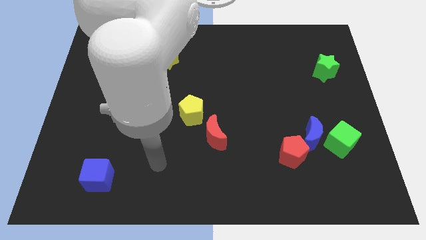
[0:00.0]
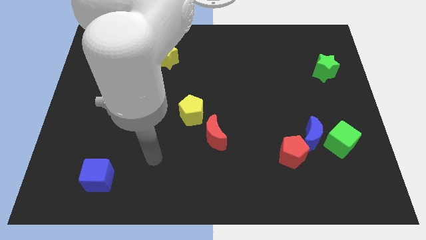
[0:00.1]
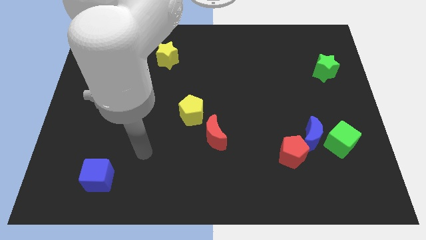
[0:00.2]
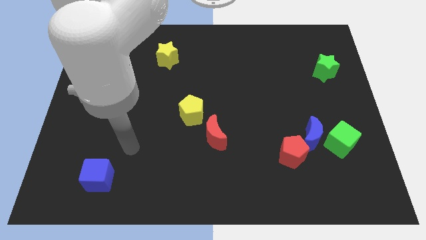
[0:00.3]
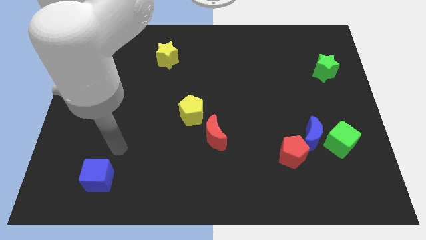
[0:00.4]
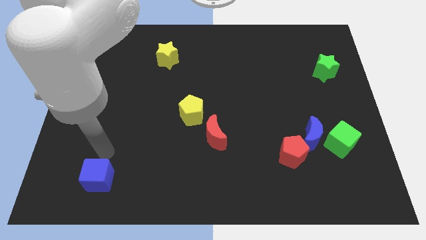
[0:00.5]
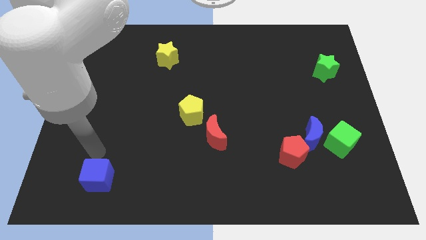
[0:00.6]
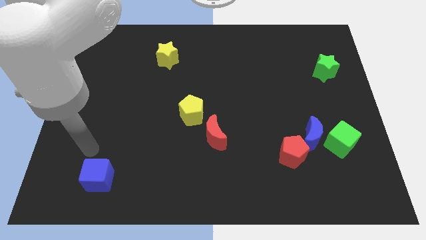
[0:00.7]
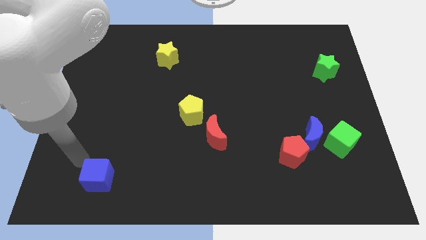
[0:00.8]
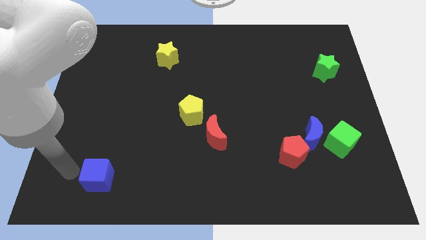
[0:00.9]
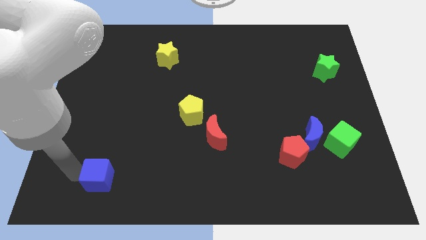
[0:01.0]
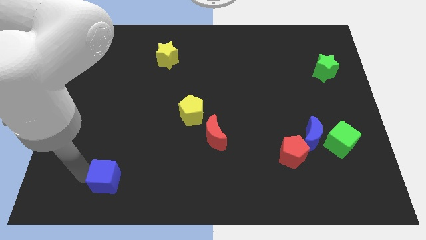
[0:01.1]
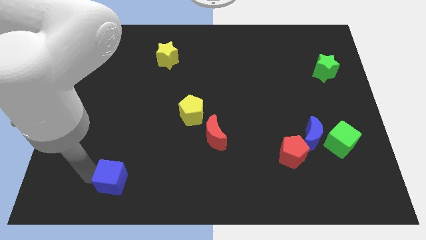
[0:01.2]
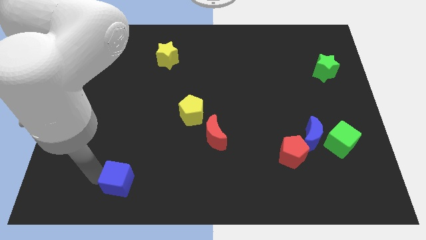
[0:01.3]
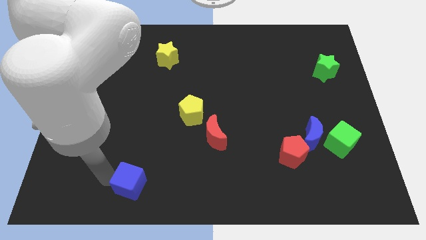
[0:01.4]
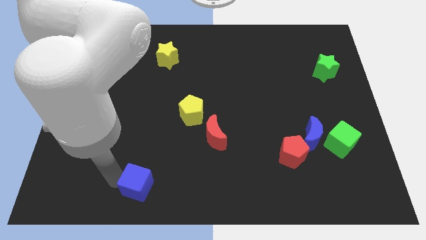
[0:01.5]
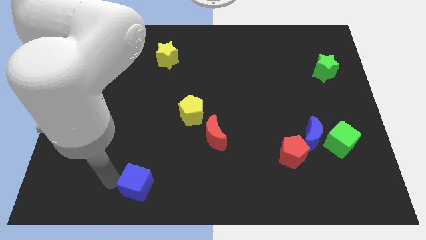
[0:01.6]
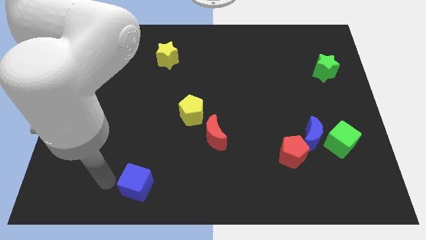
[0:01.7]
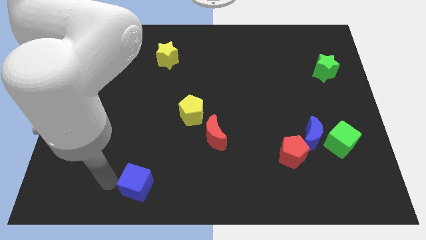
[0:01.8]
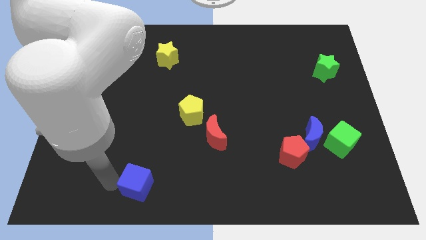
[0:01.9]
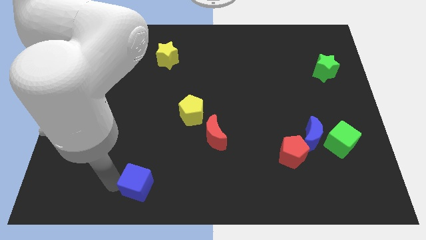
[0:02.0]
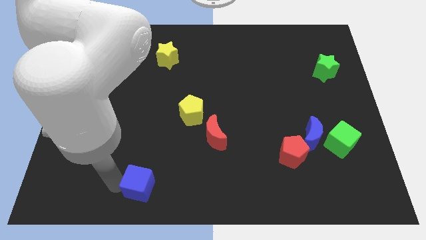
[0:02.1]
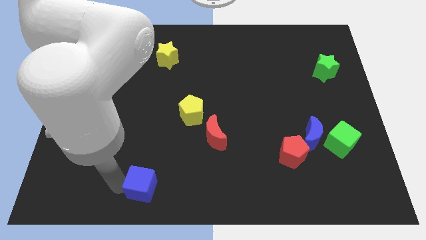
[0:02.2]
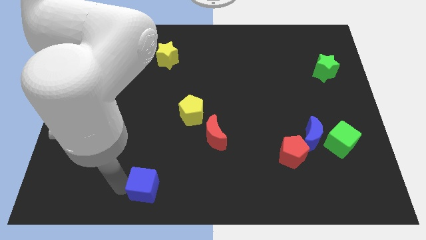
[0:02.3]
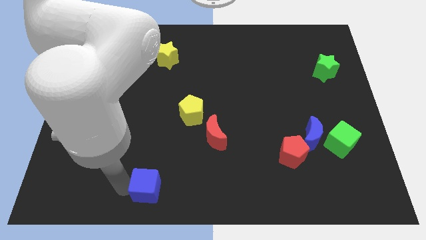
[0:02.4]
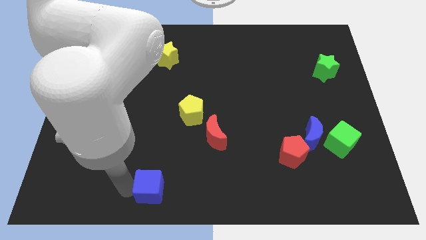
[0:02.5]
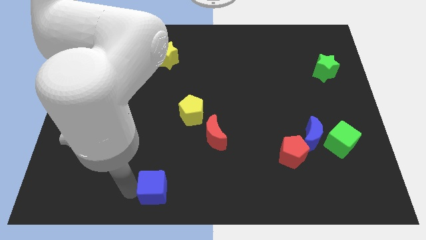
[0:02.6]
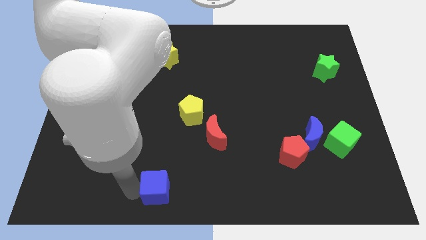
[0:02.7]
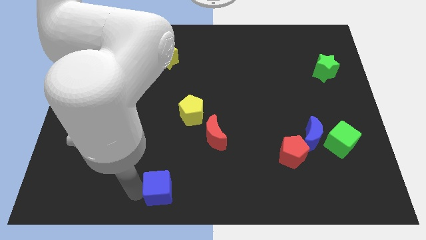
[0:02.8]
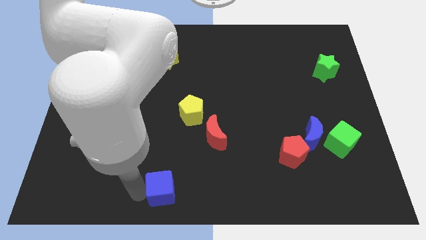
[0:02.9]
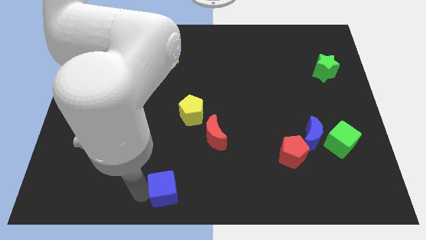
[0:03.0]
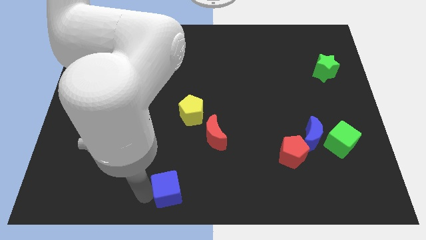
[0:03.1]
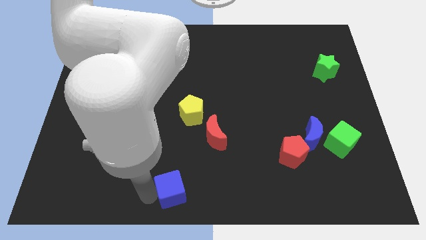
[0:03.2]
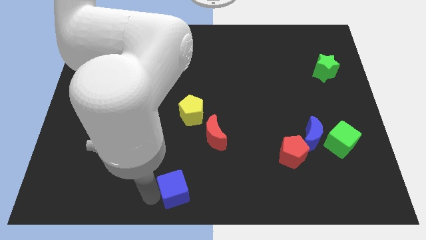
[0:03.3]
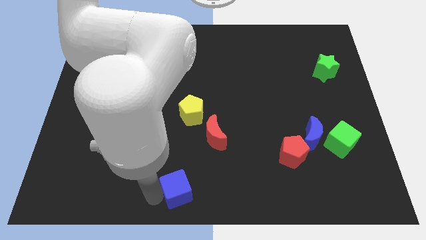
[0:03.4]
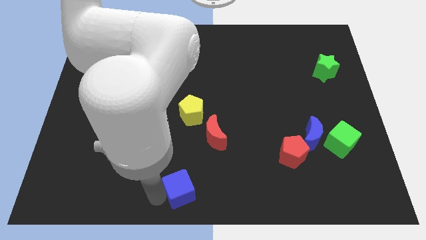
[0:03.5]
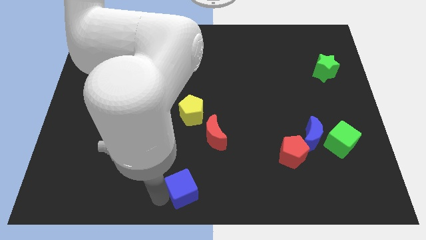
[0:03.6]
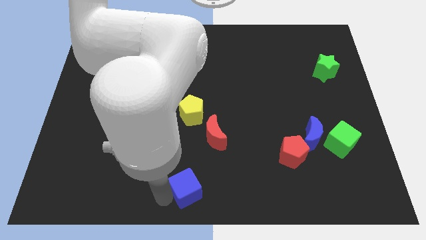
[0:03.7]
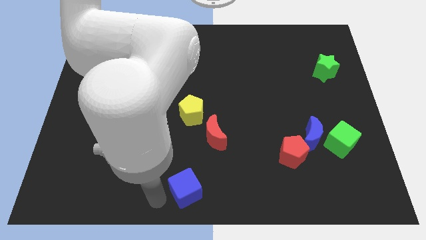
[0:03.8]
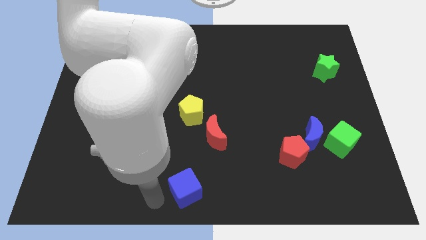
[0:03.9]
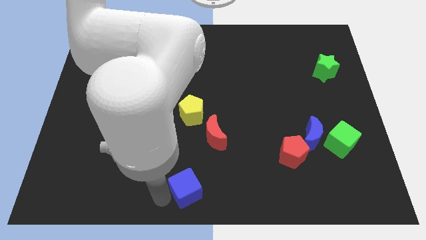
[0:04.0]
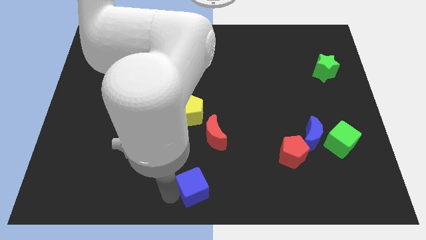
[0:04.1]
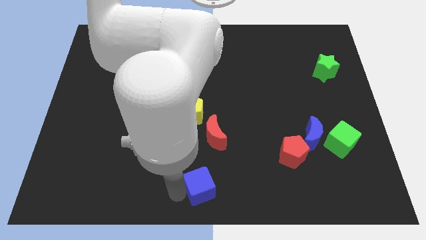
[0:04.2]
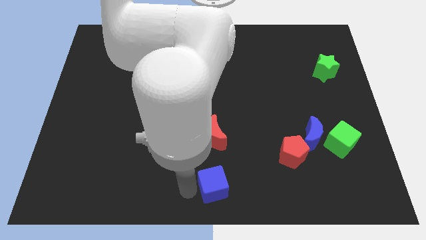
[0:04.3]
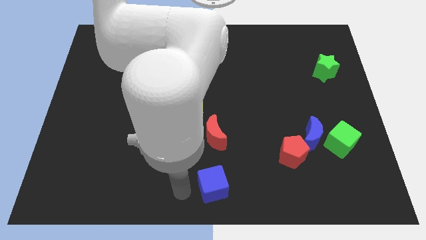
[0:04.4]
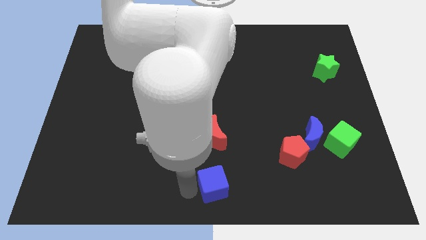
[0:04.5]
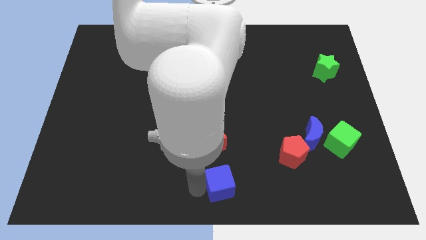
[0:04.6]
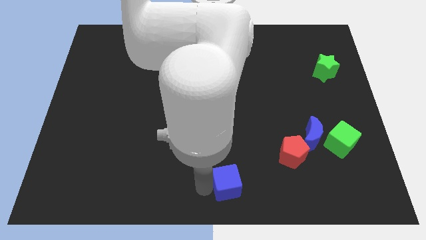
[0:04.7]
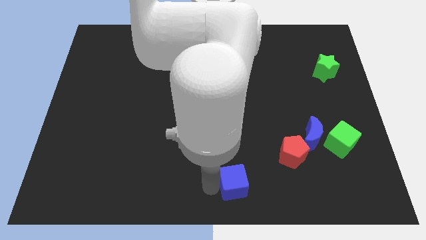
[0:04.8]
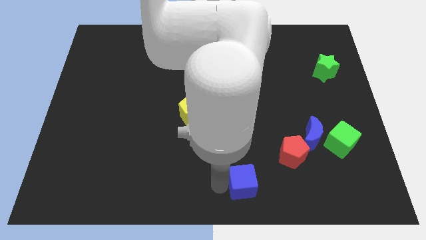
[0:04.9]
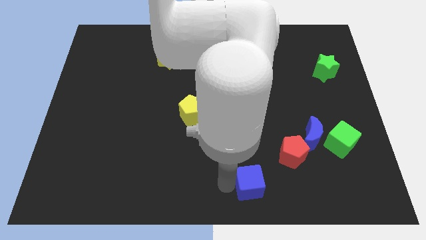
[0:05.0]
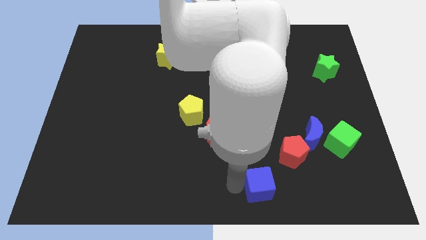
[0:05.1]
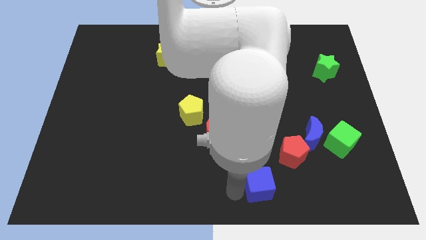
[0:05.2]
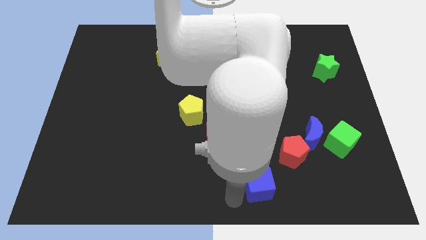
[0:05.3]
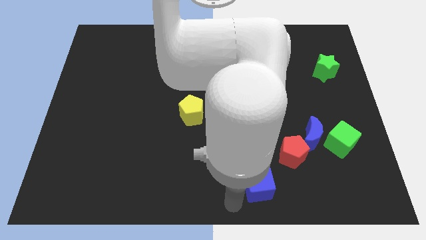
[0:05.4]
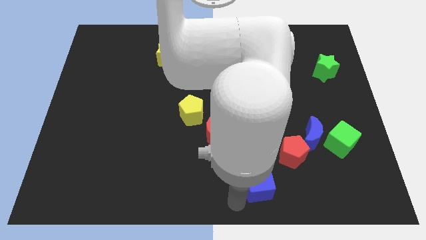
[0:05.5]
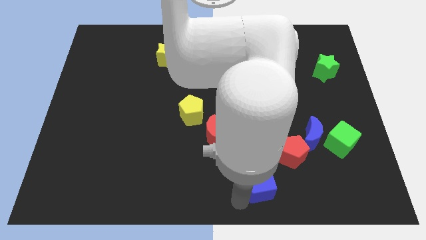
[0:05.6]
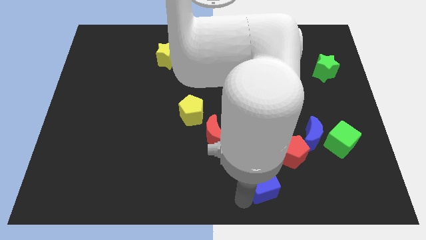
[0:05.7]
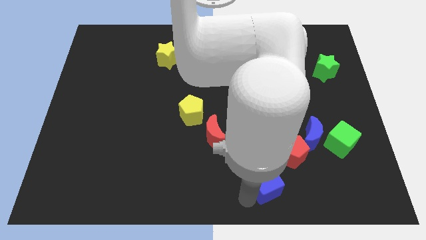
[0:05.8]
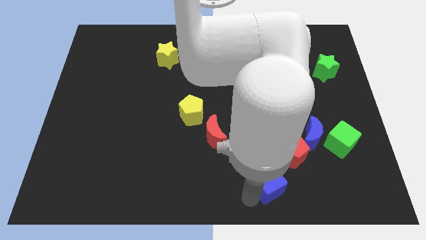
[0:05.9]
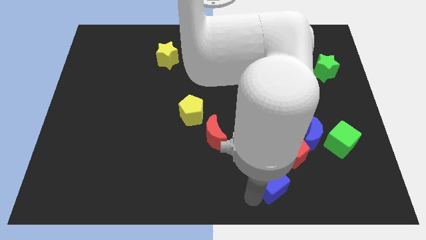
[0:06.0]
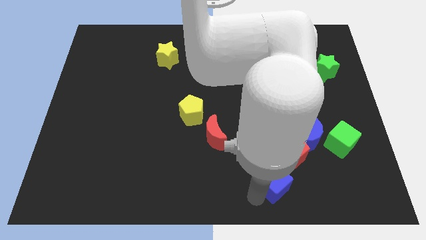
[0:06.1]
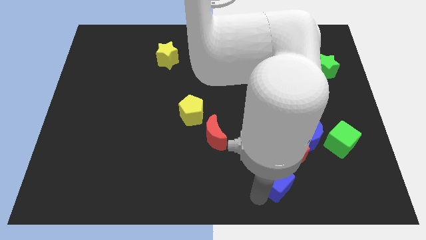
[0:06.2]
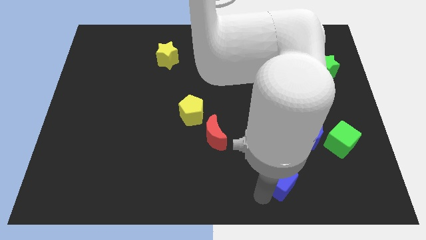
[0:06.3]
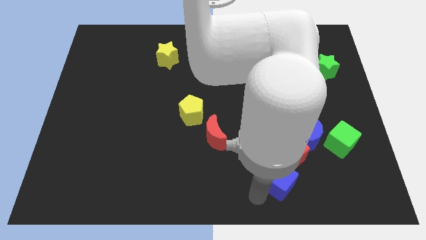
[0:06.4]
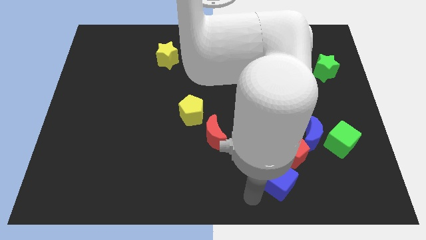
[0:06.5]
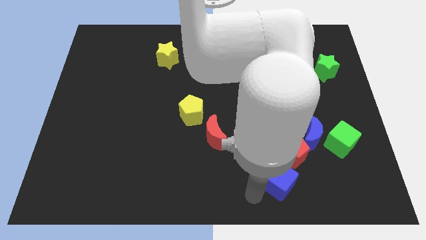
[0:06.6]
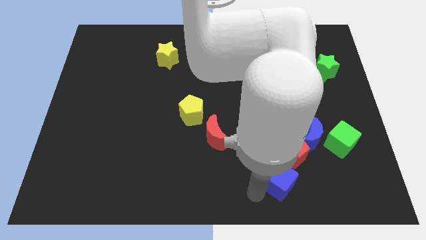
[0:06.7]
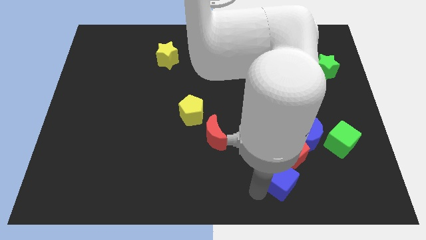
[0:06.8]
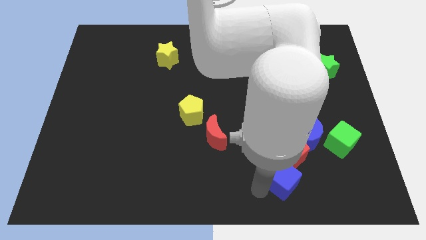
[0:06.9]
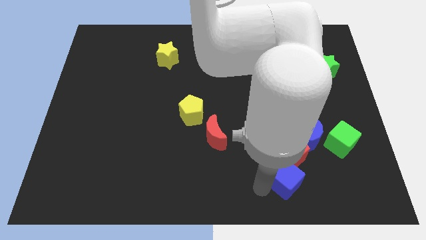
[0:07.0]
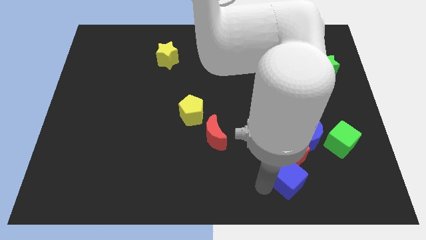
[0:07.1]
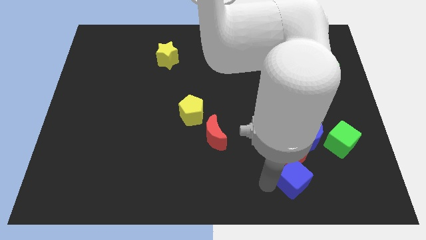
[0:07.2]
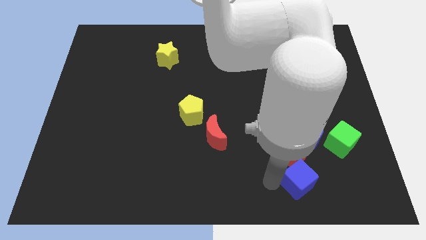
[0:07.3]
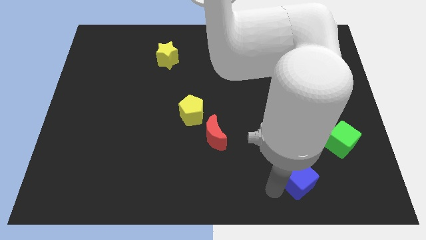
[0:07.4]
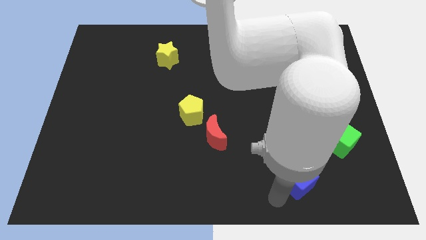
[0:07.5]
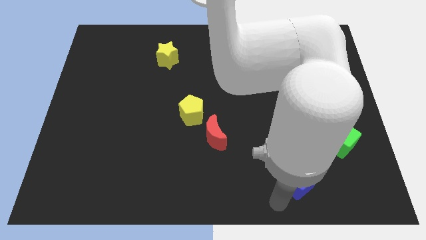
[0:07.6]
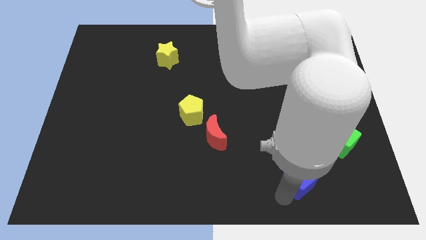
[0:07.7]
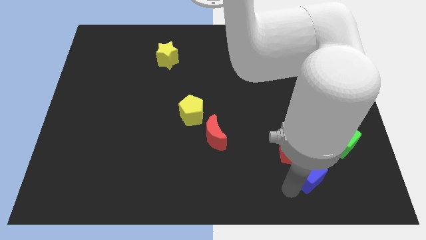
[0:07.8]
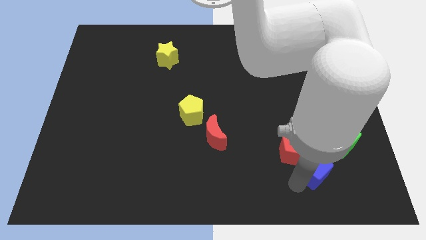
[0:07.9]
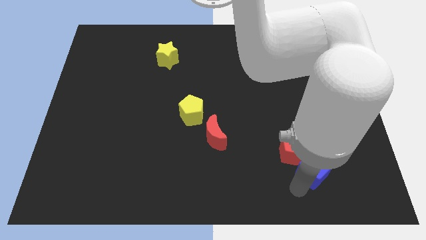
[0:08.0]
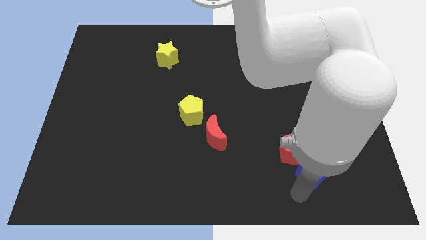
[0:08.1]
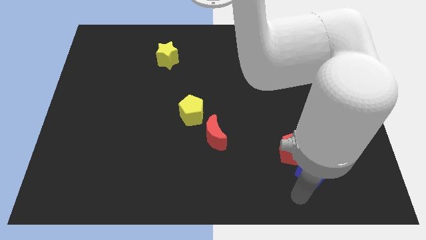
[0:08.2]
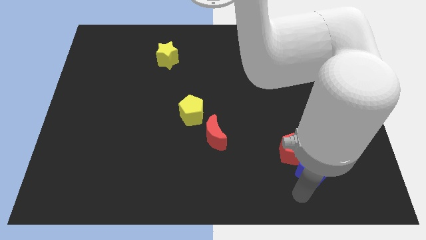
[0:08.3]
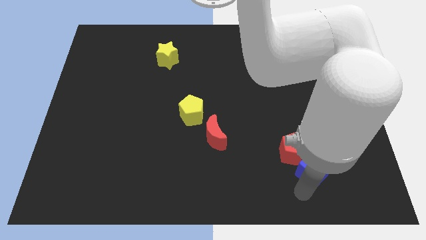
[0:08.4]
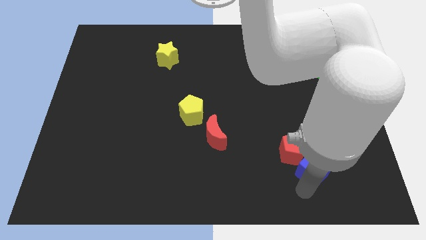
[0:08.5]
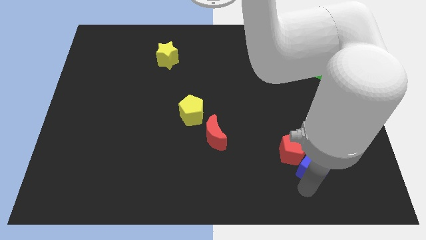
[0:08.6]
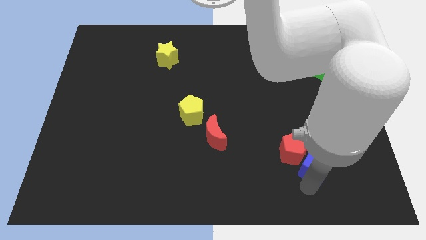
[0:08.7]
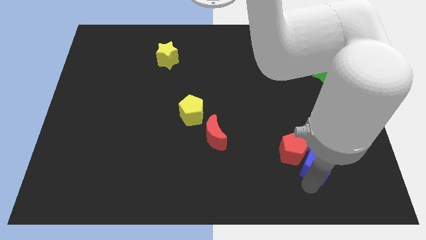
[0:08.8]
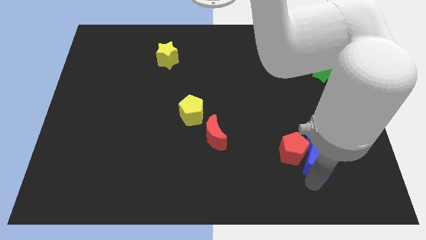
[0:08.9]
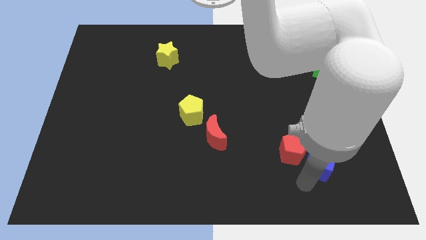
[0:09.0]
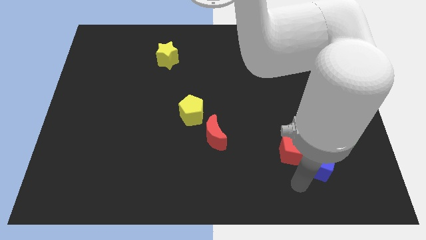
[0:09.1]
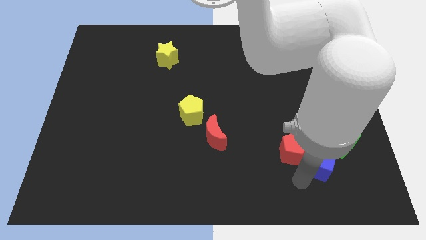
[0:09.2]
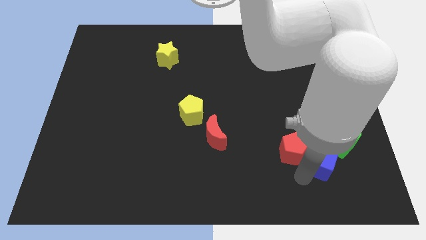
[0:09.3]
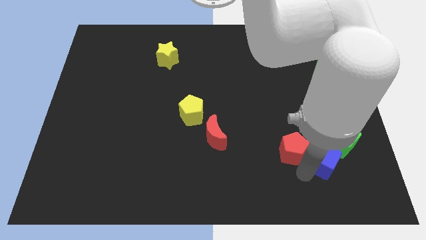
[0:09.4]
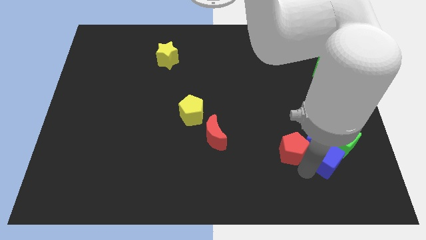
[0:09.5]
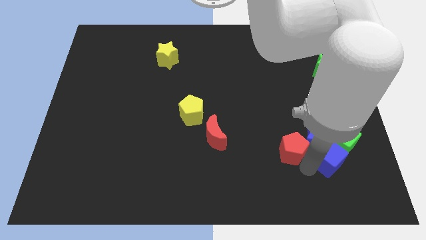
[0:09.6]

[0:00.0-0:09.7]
slide the blue cube towards the green cube
